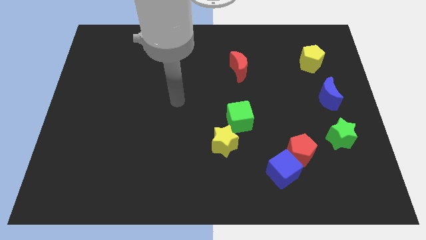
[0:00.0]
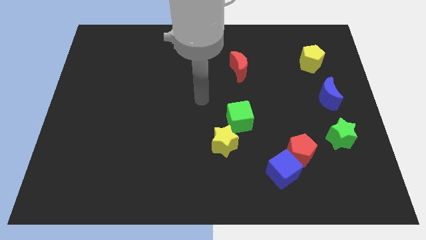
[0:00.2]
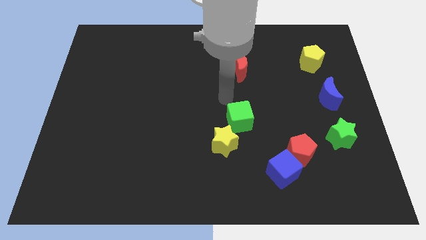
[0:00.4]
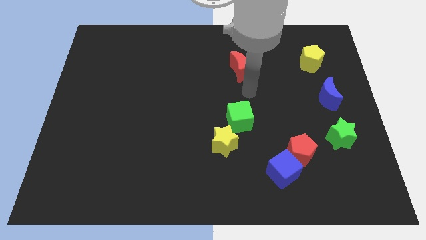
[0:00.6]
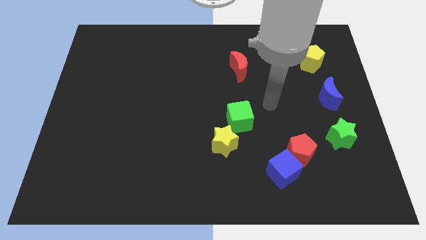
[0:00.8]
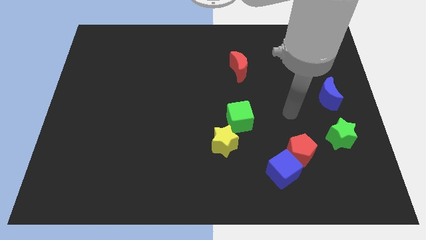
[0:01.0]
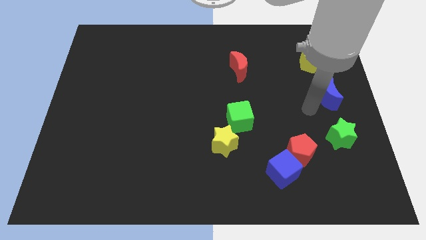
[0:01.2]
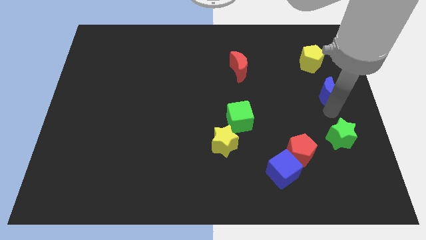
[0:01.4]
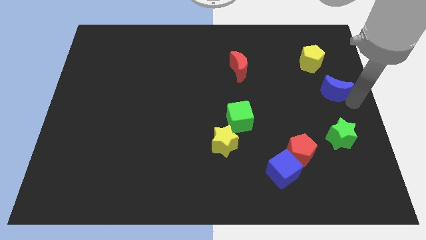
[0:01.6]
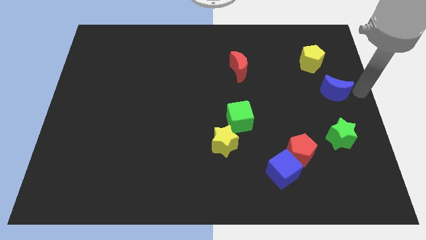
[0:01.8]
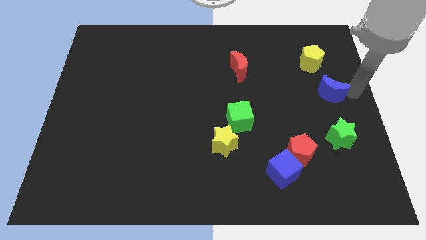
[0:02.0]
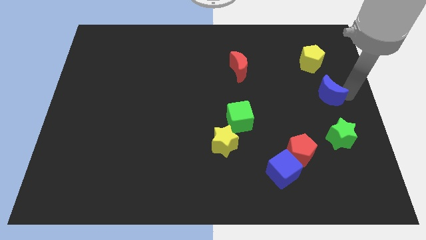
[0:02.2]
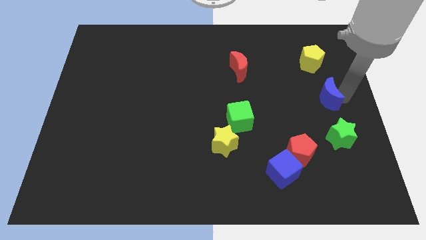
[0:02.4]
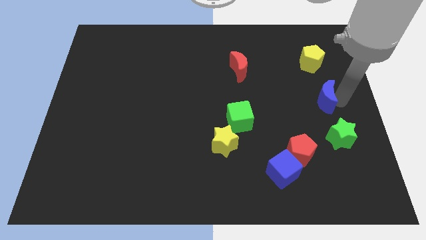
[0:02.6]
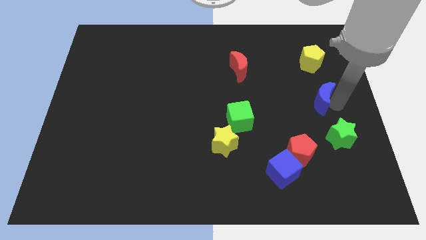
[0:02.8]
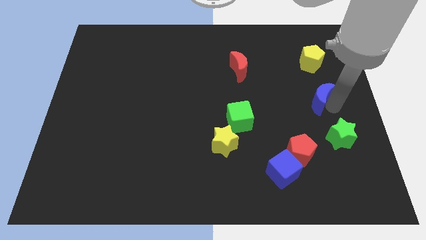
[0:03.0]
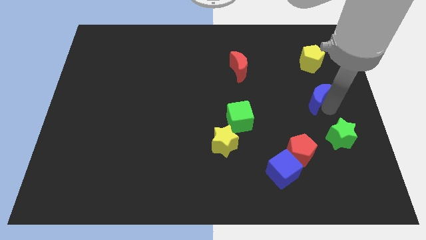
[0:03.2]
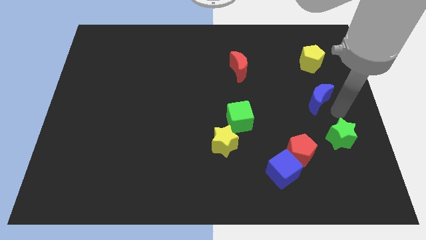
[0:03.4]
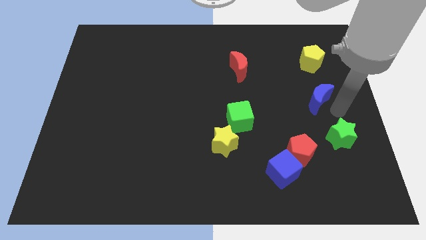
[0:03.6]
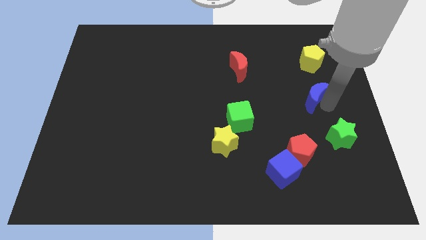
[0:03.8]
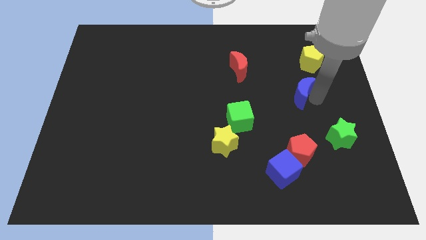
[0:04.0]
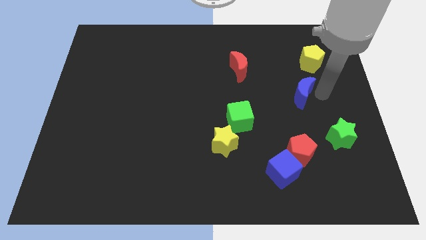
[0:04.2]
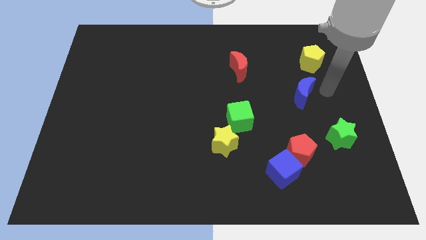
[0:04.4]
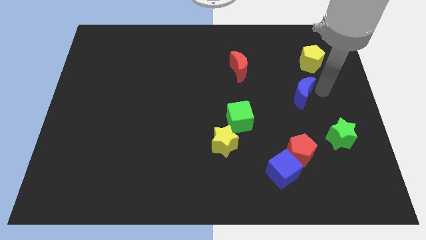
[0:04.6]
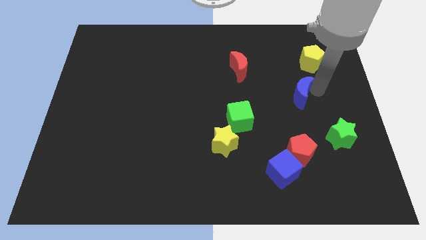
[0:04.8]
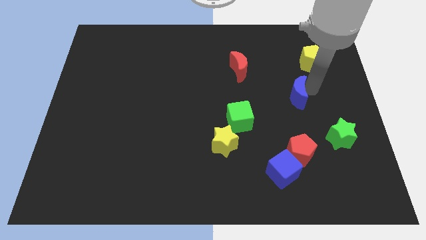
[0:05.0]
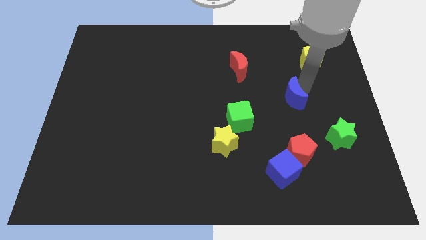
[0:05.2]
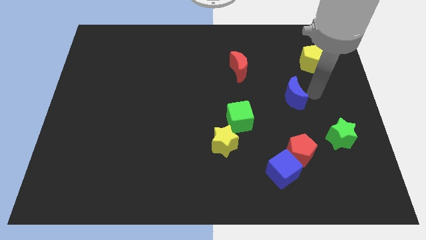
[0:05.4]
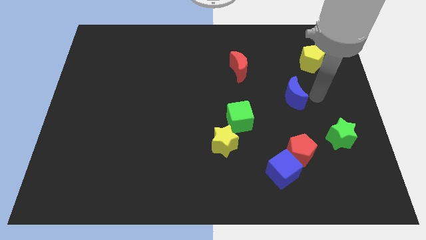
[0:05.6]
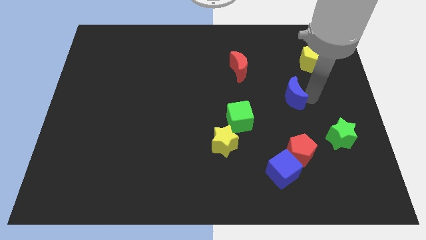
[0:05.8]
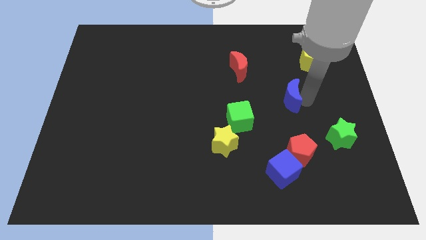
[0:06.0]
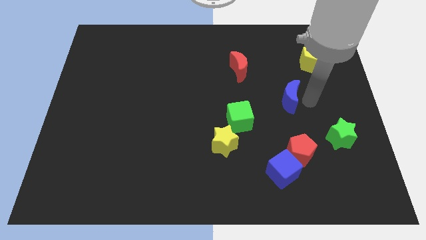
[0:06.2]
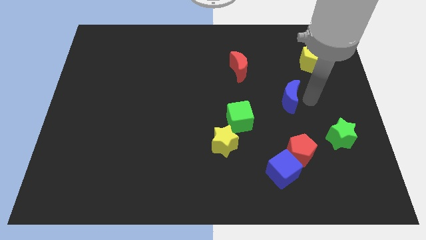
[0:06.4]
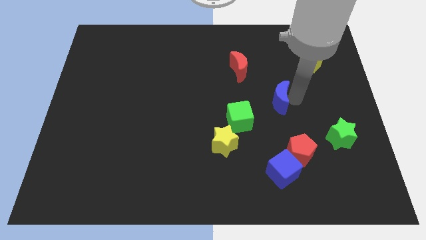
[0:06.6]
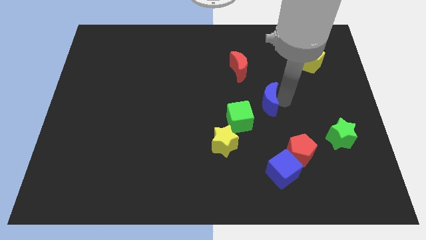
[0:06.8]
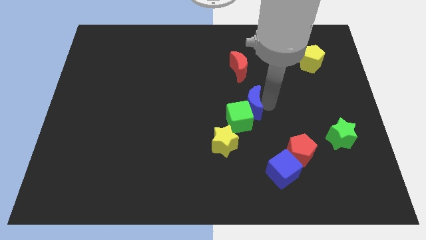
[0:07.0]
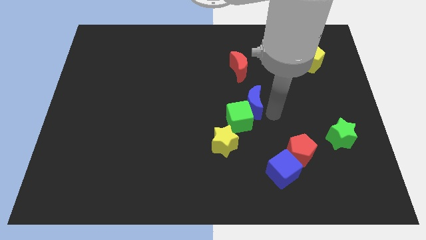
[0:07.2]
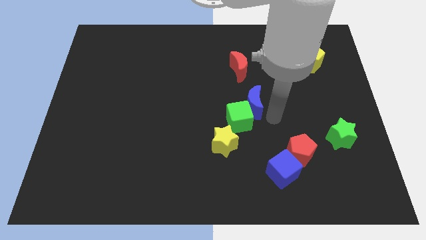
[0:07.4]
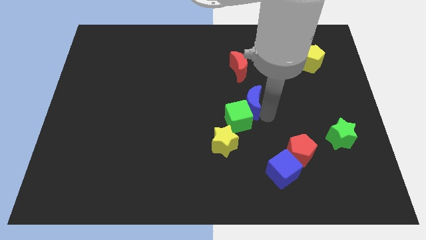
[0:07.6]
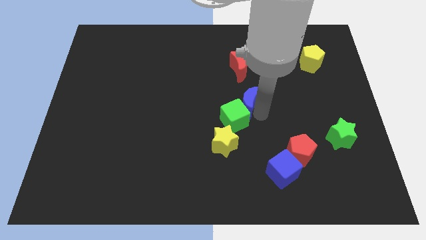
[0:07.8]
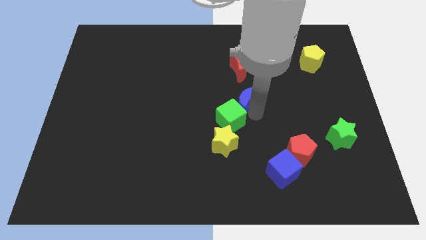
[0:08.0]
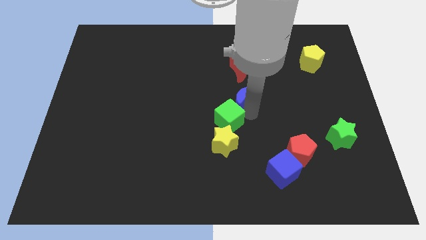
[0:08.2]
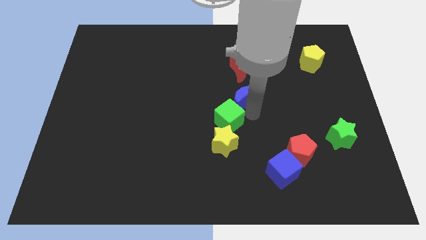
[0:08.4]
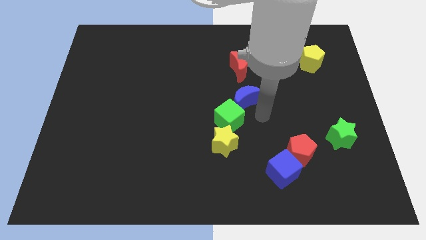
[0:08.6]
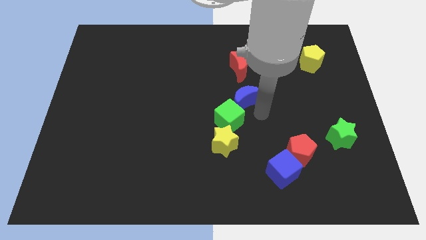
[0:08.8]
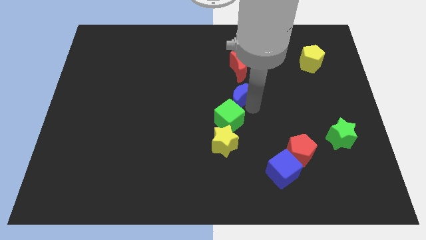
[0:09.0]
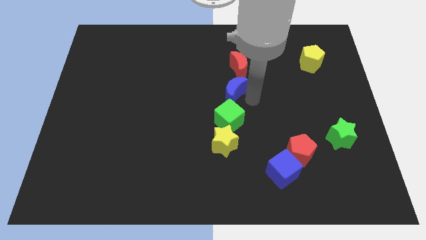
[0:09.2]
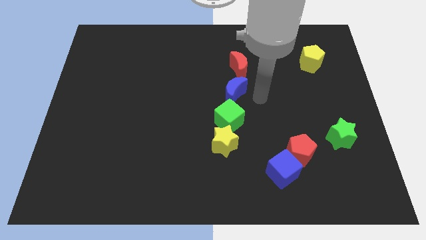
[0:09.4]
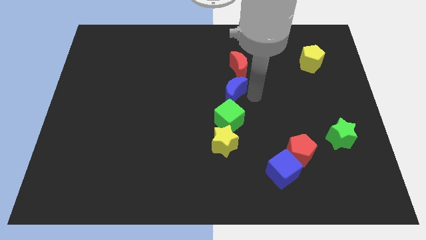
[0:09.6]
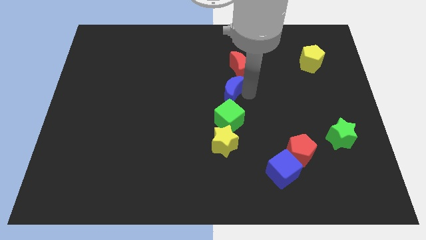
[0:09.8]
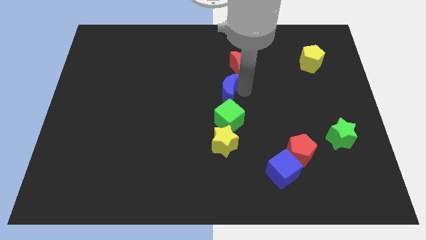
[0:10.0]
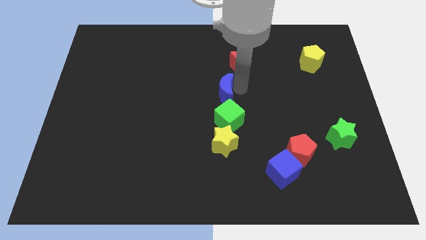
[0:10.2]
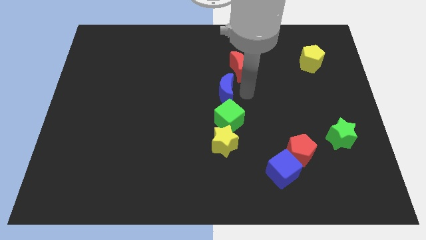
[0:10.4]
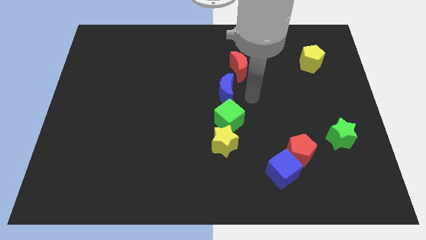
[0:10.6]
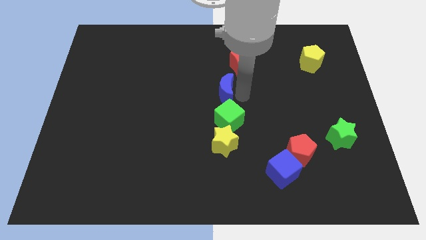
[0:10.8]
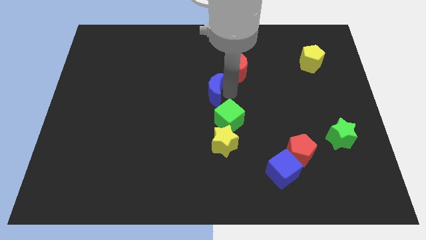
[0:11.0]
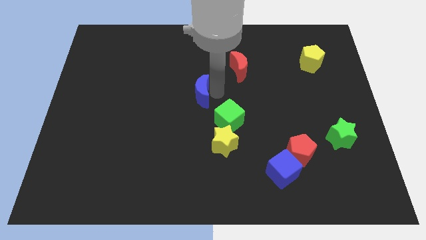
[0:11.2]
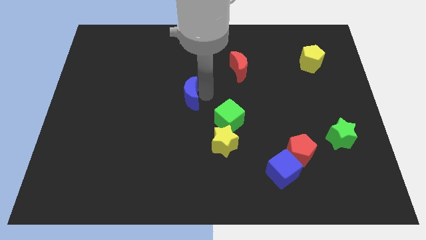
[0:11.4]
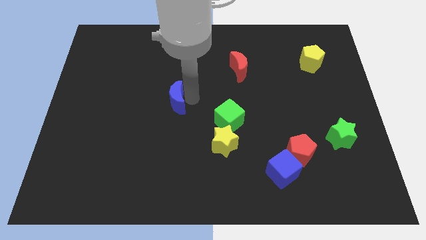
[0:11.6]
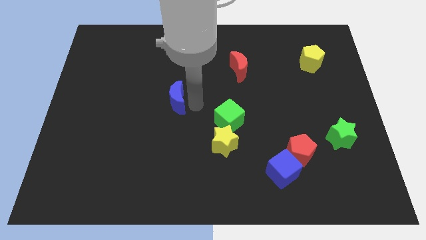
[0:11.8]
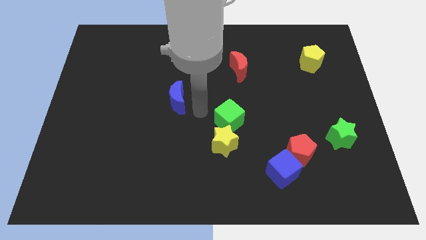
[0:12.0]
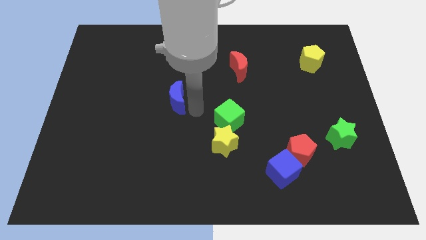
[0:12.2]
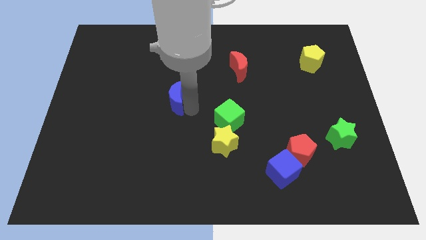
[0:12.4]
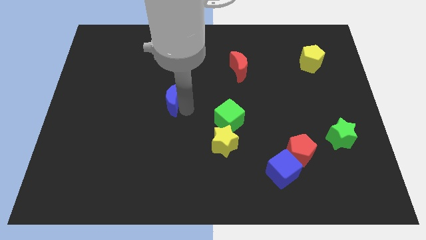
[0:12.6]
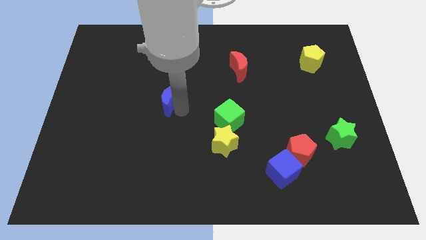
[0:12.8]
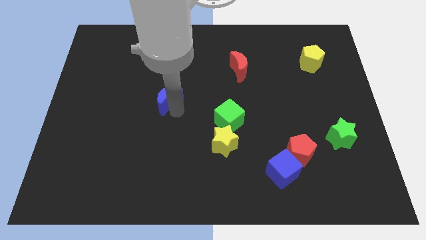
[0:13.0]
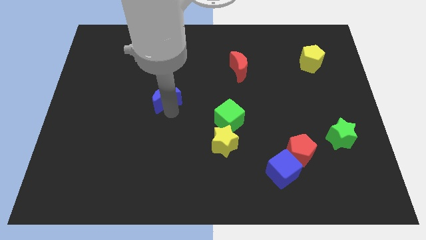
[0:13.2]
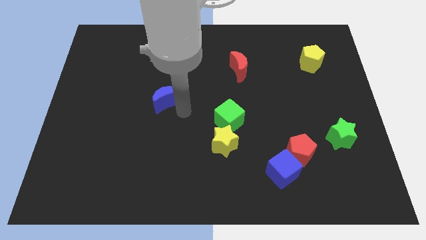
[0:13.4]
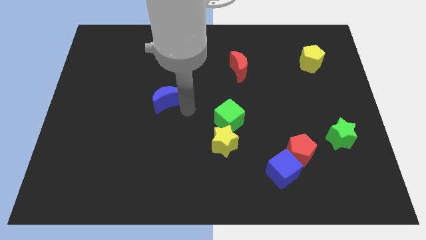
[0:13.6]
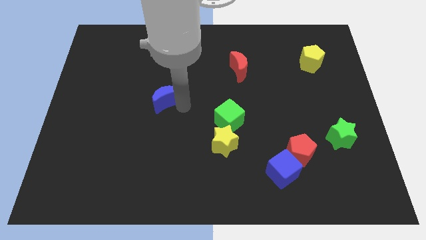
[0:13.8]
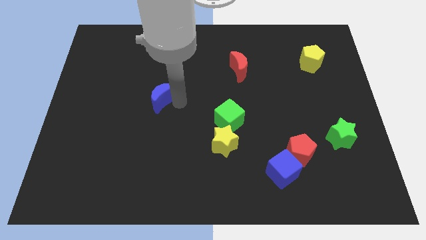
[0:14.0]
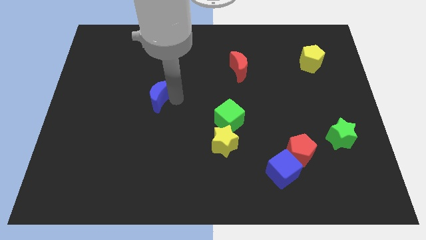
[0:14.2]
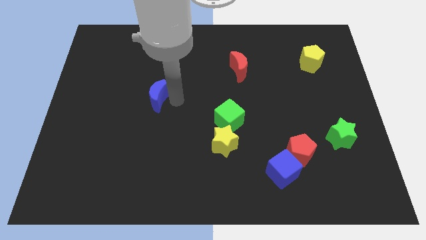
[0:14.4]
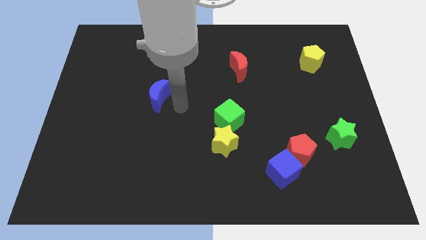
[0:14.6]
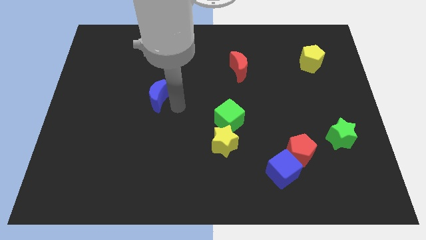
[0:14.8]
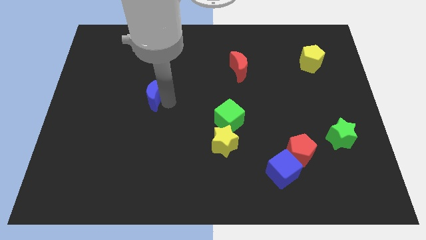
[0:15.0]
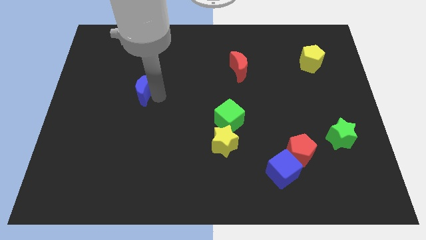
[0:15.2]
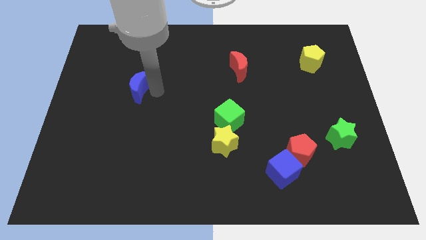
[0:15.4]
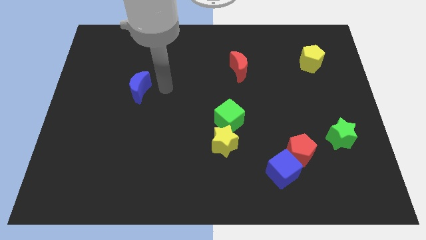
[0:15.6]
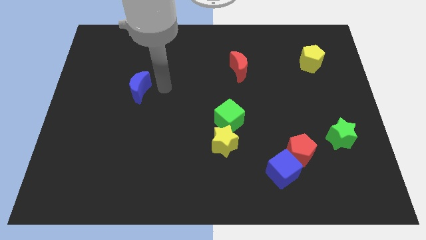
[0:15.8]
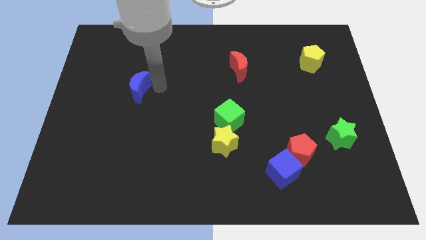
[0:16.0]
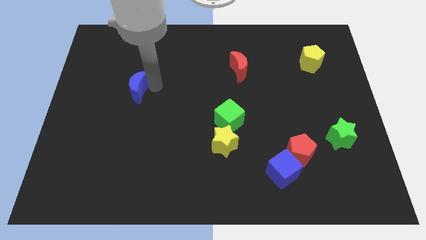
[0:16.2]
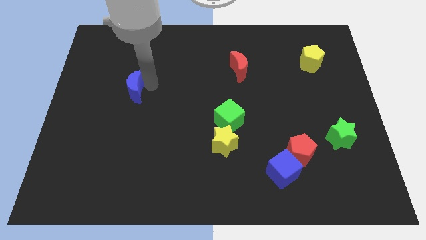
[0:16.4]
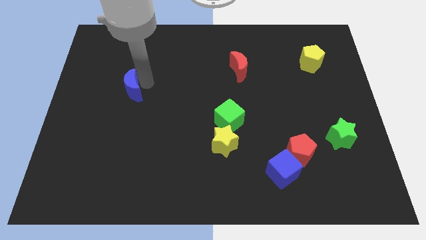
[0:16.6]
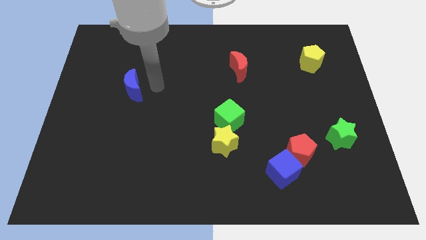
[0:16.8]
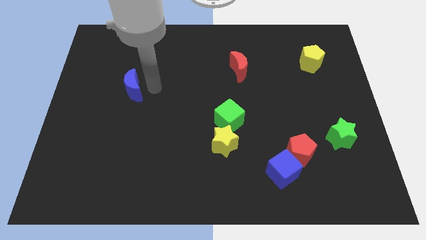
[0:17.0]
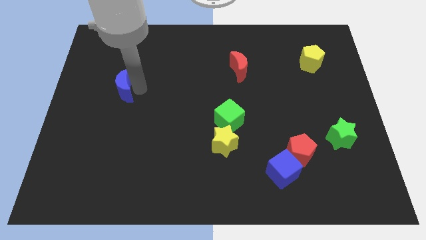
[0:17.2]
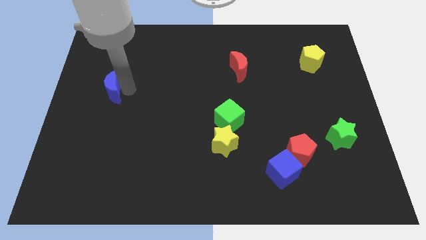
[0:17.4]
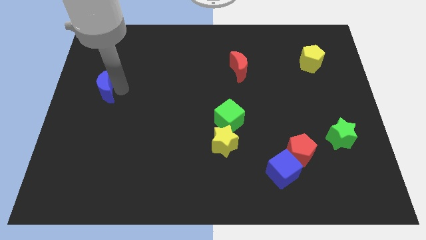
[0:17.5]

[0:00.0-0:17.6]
put the blue moon to the center left
